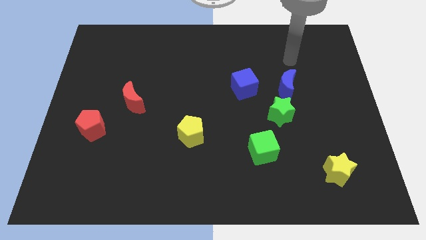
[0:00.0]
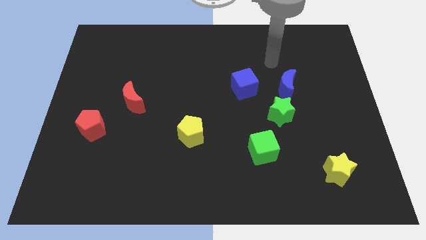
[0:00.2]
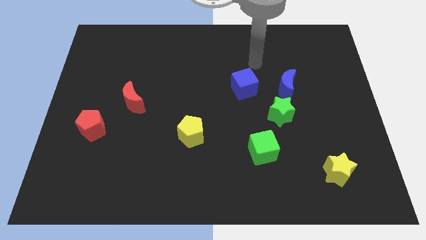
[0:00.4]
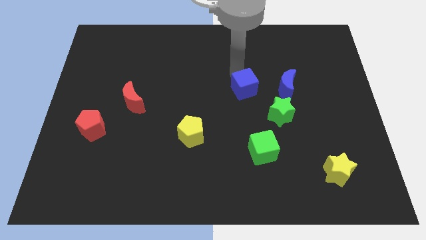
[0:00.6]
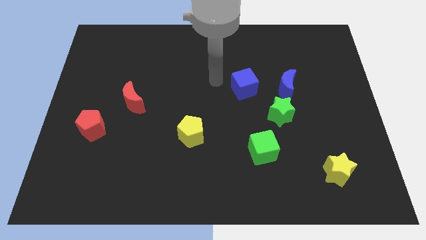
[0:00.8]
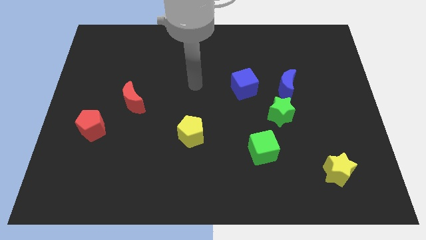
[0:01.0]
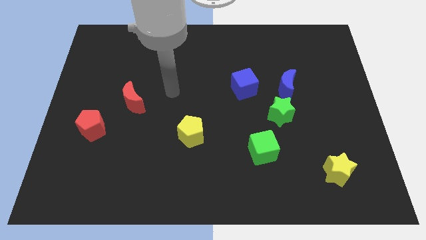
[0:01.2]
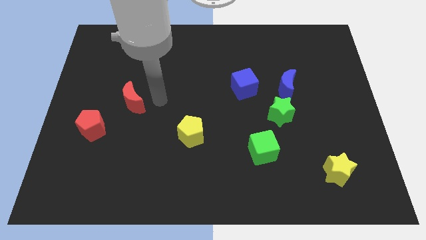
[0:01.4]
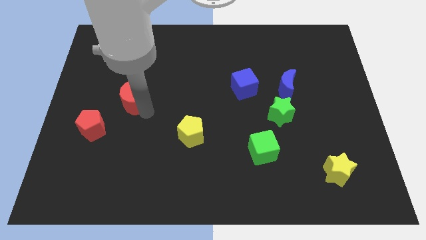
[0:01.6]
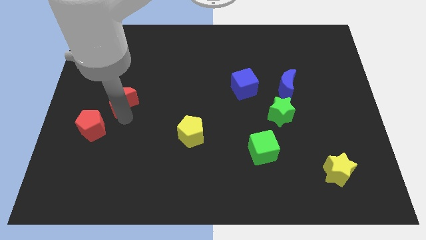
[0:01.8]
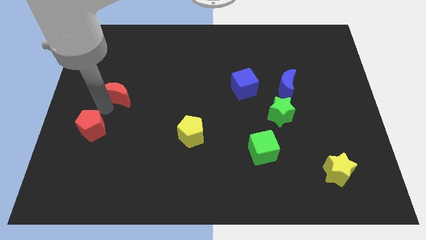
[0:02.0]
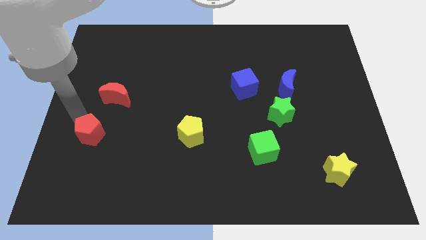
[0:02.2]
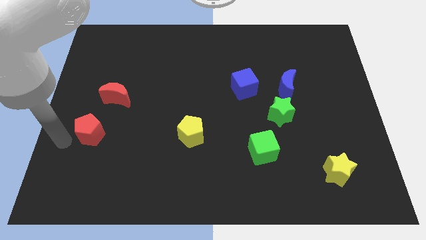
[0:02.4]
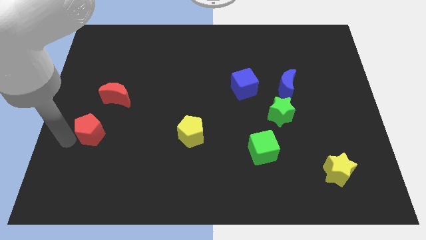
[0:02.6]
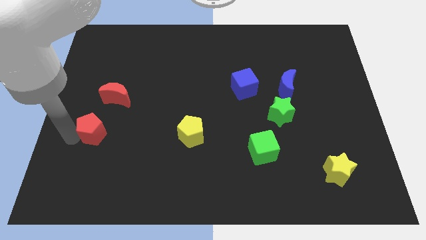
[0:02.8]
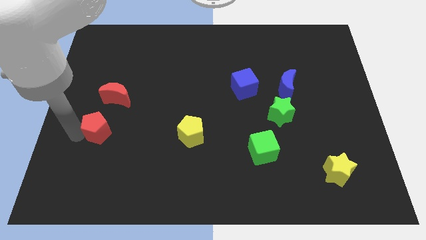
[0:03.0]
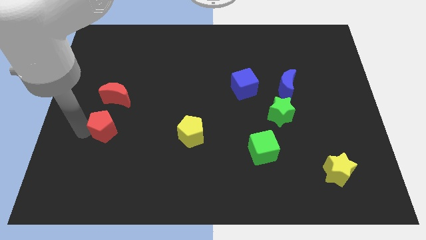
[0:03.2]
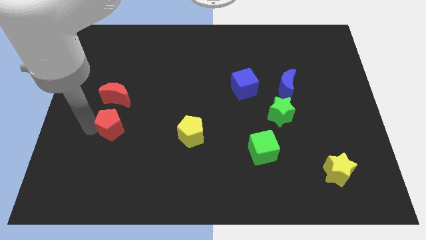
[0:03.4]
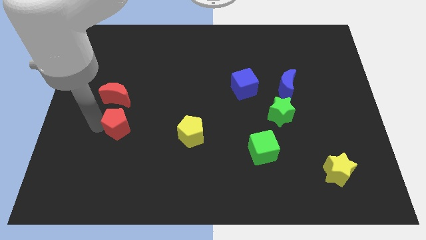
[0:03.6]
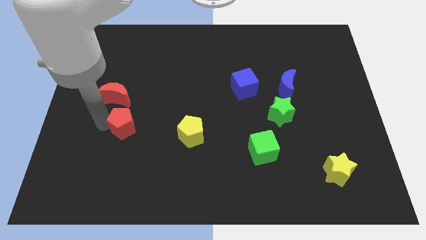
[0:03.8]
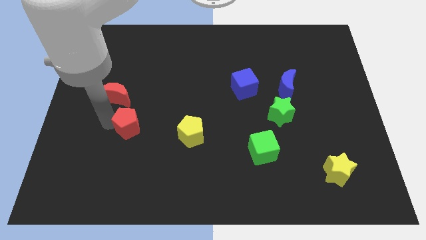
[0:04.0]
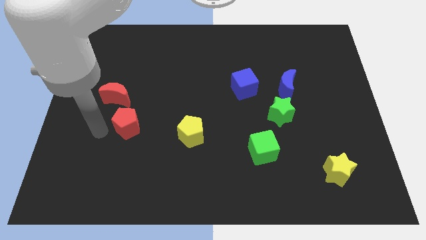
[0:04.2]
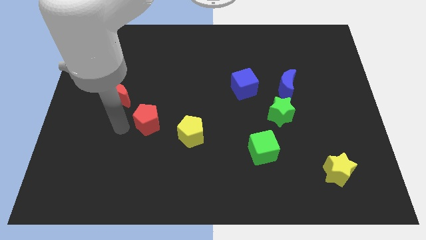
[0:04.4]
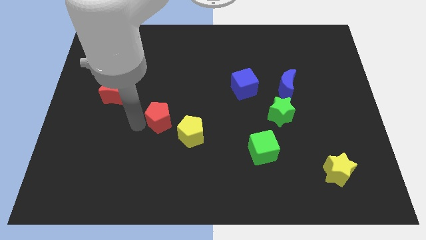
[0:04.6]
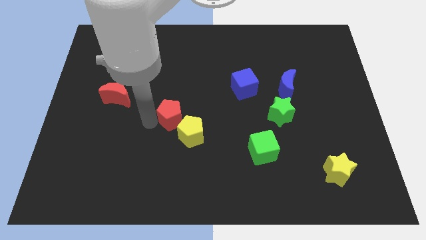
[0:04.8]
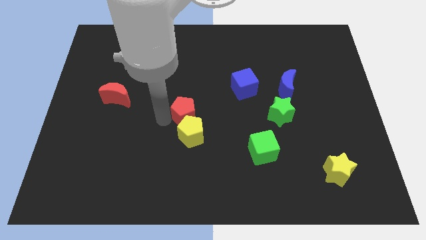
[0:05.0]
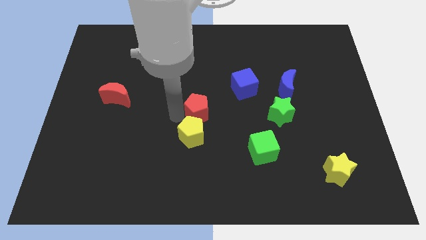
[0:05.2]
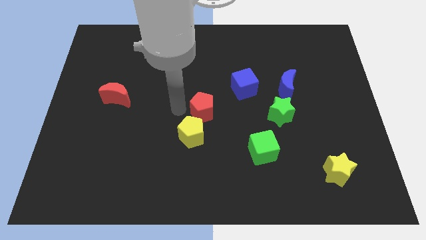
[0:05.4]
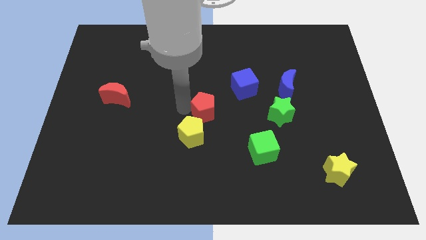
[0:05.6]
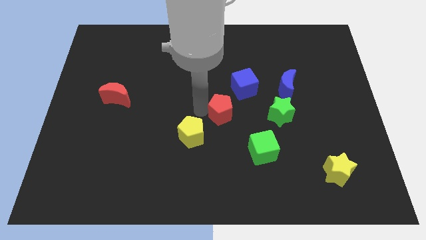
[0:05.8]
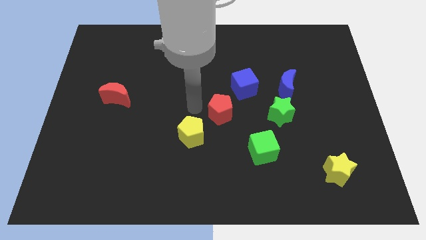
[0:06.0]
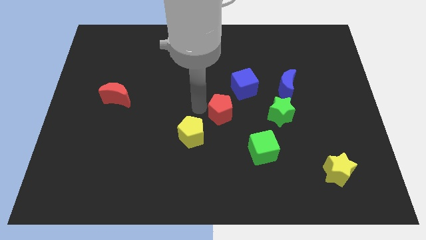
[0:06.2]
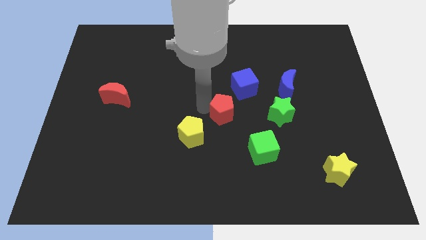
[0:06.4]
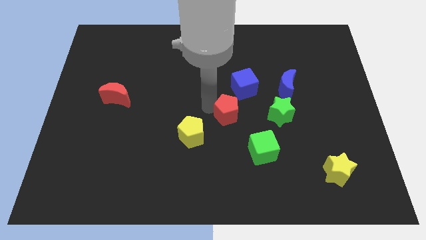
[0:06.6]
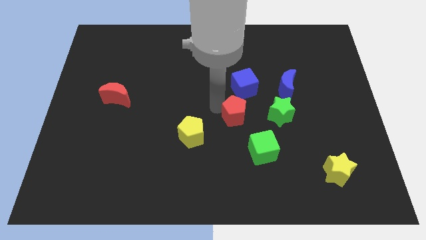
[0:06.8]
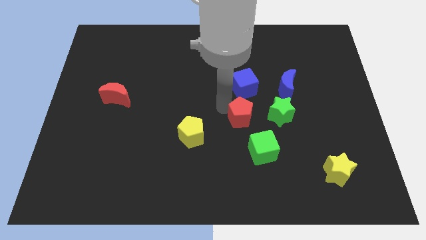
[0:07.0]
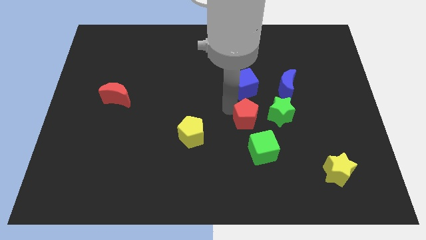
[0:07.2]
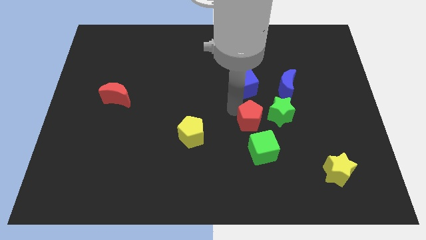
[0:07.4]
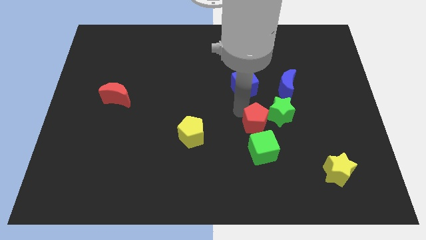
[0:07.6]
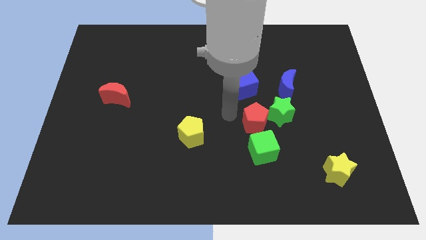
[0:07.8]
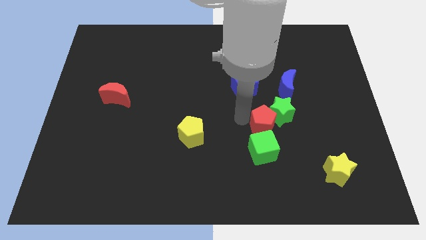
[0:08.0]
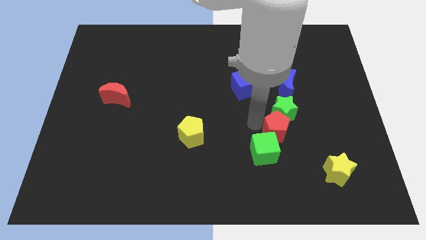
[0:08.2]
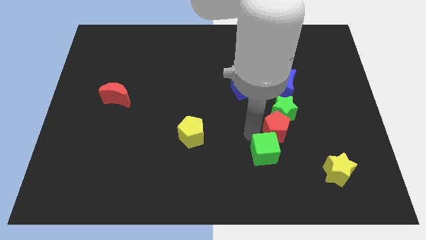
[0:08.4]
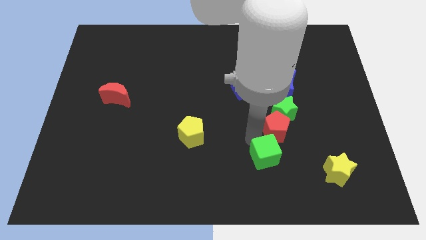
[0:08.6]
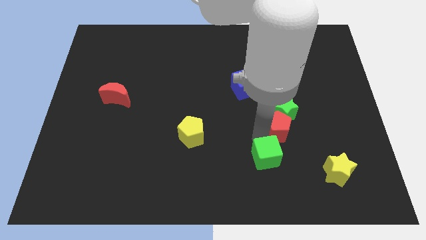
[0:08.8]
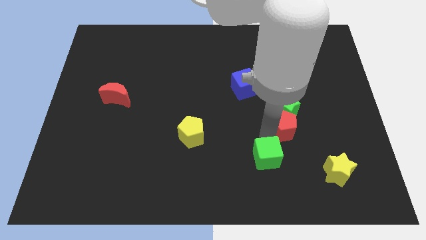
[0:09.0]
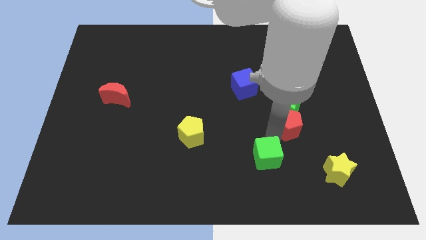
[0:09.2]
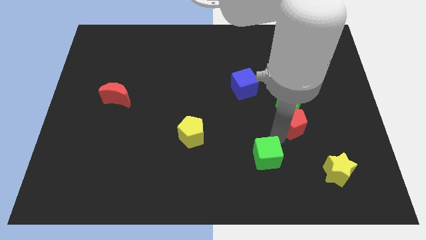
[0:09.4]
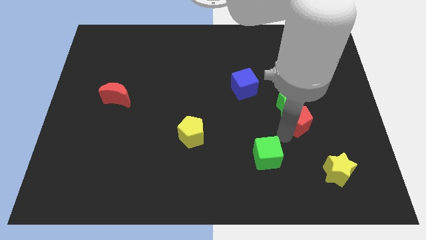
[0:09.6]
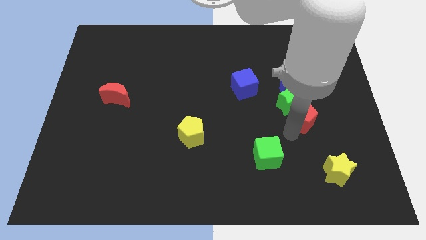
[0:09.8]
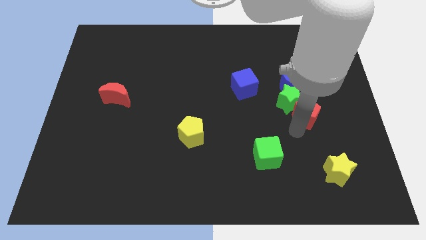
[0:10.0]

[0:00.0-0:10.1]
move the red pentagon to the bottom right of the blue moon

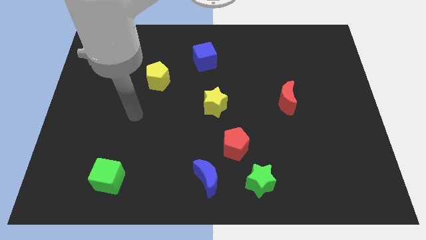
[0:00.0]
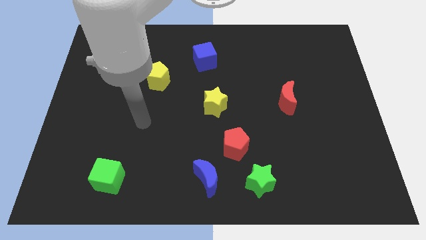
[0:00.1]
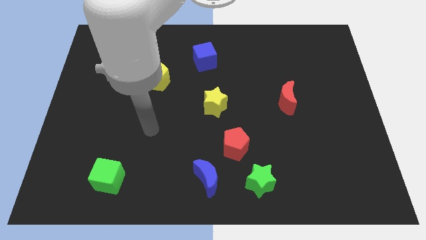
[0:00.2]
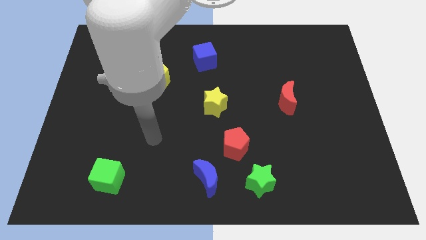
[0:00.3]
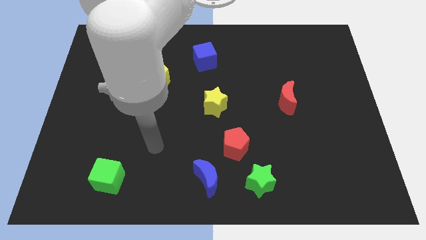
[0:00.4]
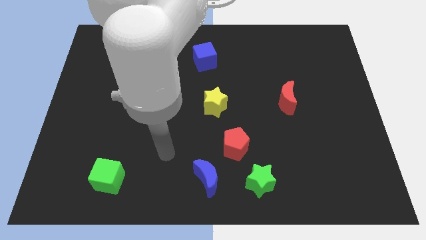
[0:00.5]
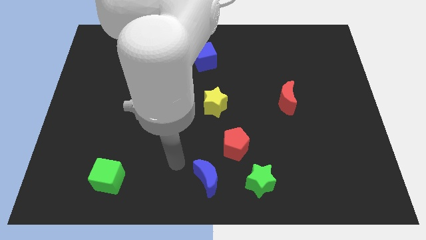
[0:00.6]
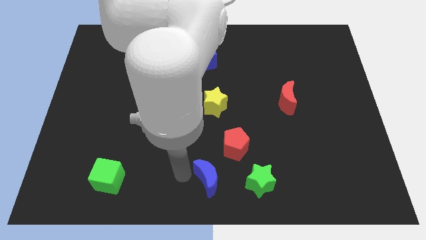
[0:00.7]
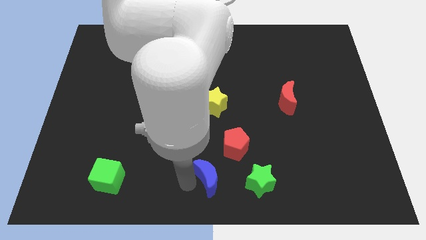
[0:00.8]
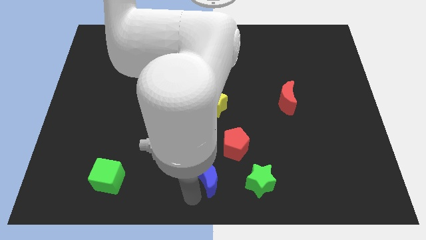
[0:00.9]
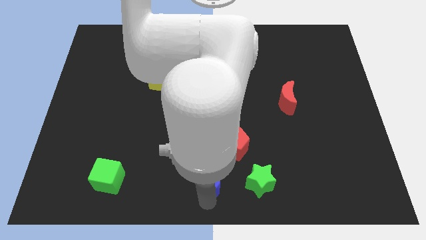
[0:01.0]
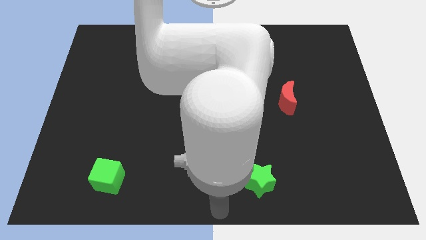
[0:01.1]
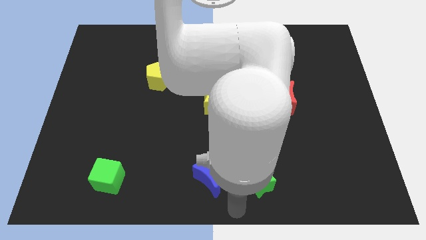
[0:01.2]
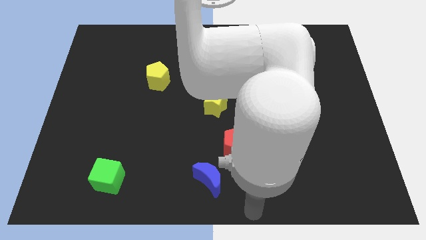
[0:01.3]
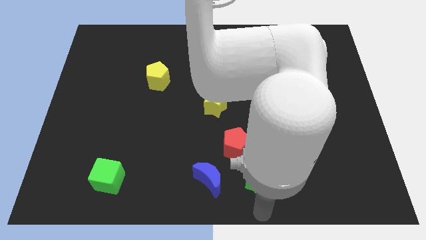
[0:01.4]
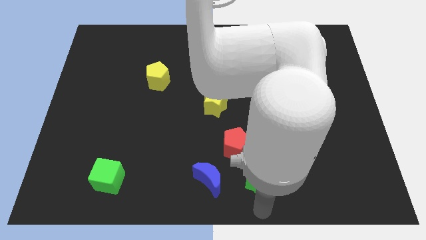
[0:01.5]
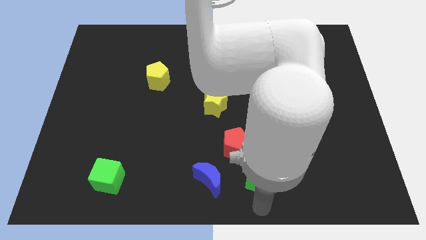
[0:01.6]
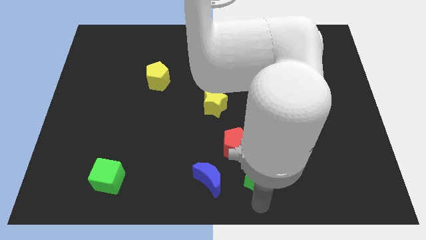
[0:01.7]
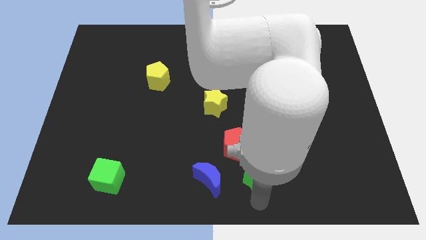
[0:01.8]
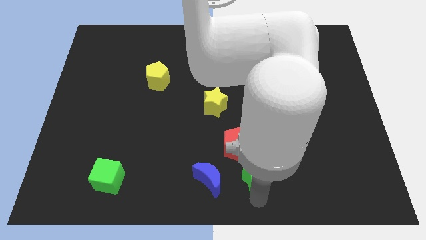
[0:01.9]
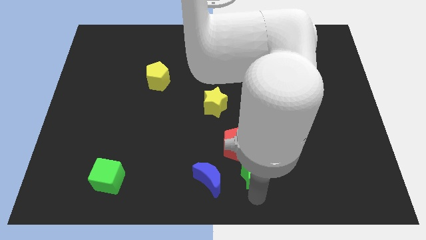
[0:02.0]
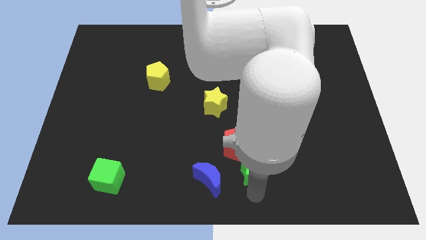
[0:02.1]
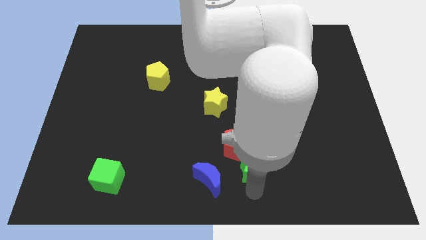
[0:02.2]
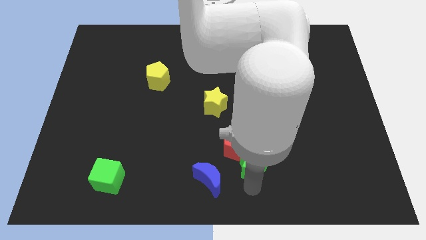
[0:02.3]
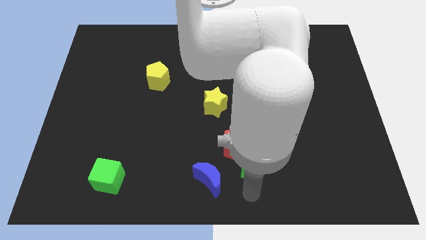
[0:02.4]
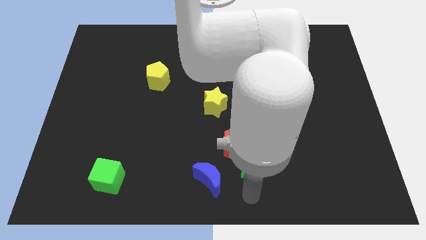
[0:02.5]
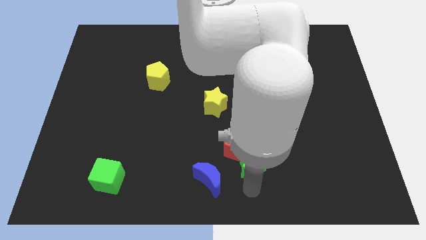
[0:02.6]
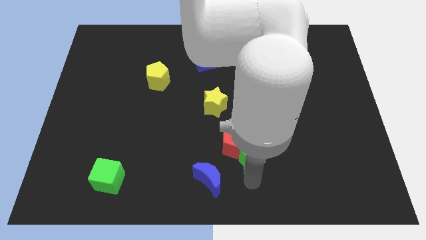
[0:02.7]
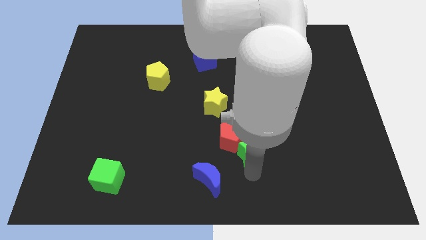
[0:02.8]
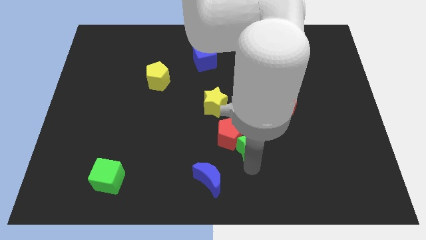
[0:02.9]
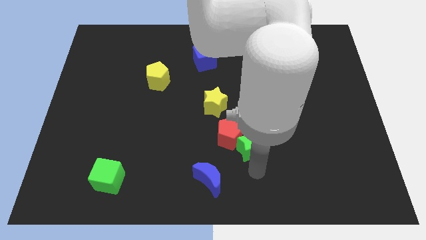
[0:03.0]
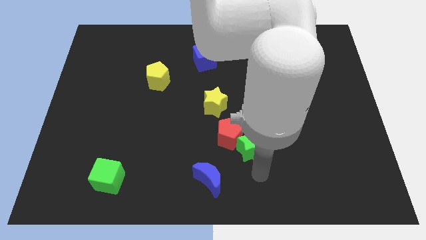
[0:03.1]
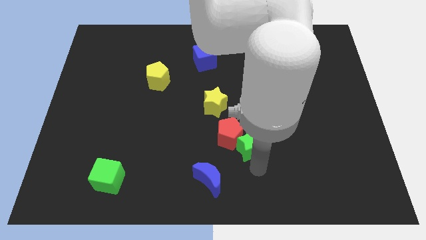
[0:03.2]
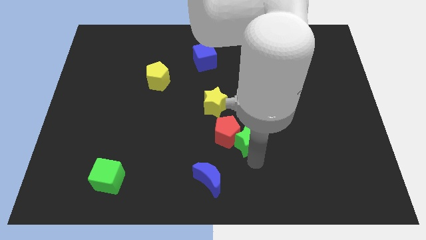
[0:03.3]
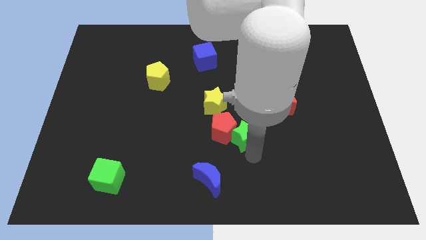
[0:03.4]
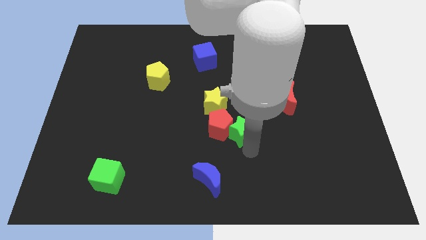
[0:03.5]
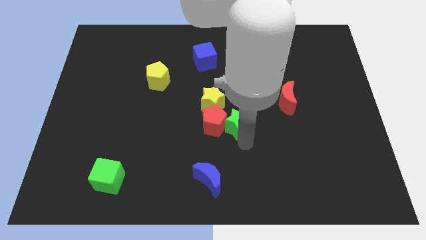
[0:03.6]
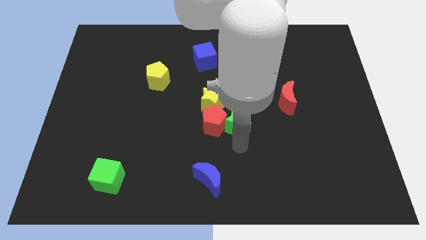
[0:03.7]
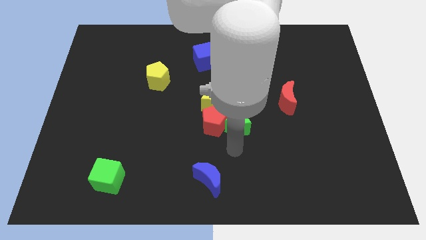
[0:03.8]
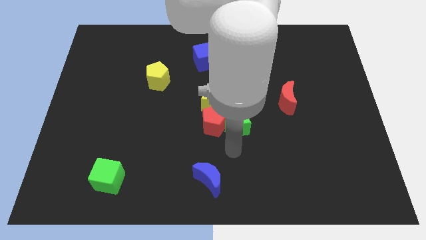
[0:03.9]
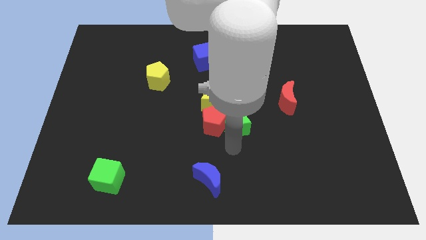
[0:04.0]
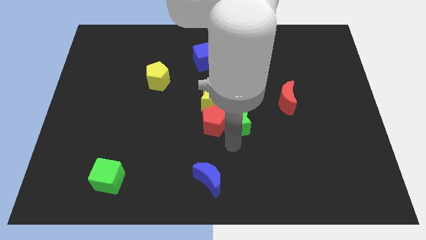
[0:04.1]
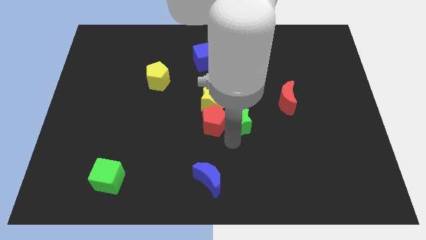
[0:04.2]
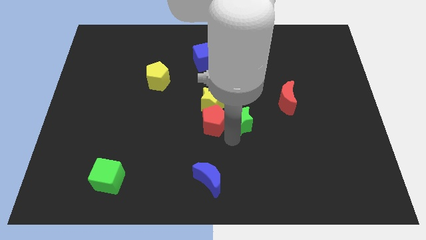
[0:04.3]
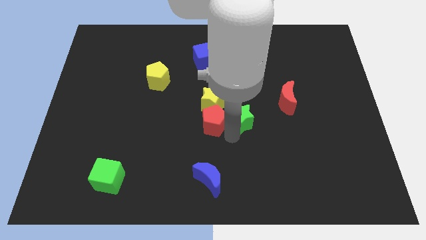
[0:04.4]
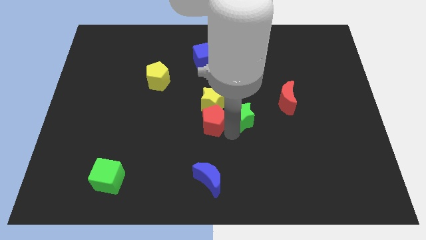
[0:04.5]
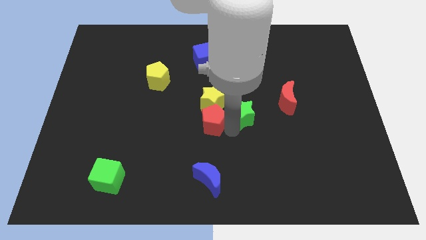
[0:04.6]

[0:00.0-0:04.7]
slide the green star to the left of the red moon
